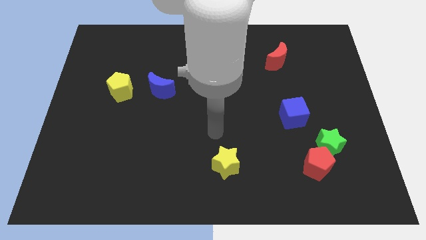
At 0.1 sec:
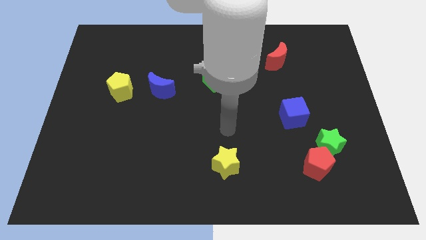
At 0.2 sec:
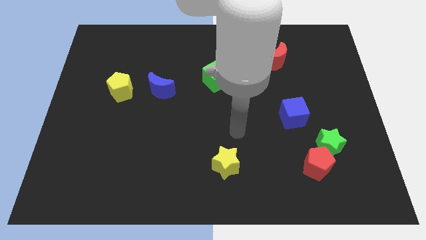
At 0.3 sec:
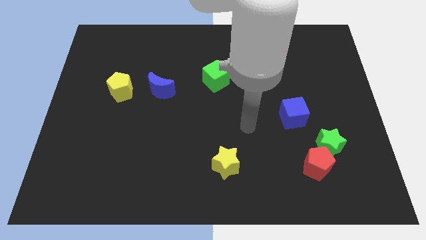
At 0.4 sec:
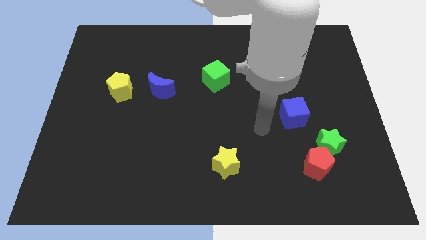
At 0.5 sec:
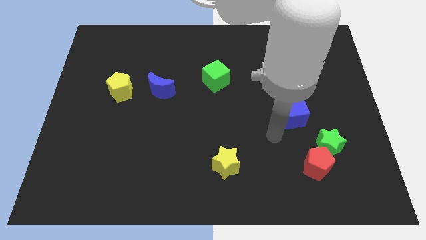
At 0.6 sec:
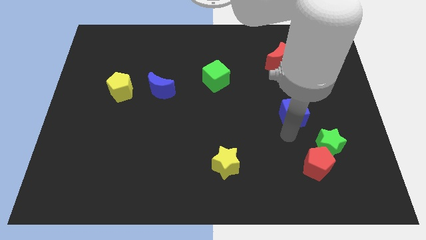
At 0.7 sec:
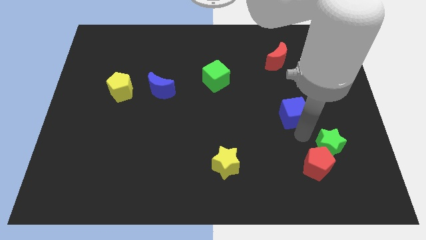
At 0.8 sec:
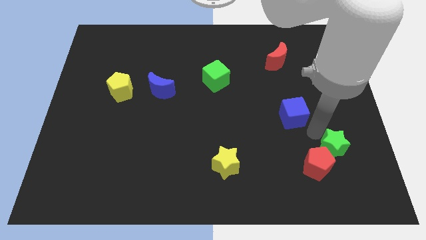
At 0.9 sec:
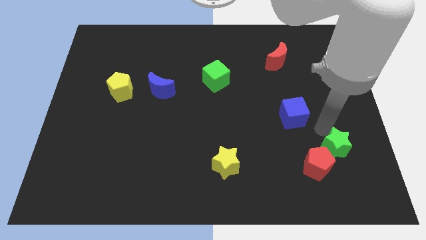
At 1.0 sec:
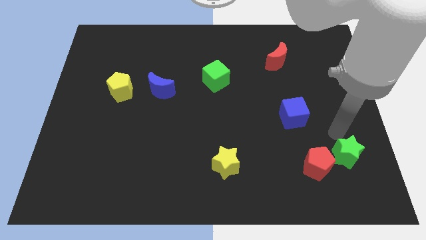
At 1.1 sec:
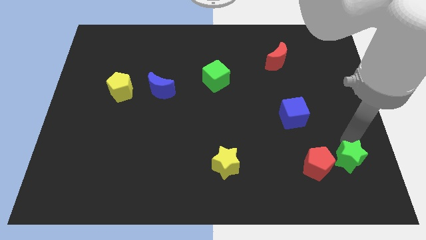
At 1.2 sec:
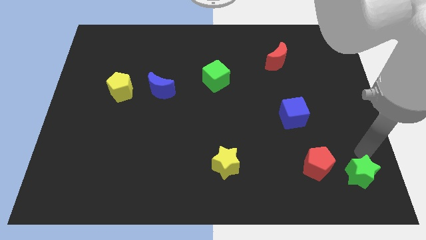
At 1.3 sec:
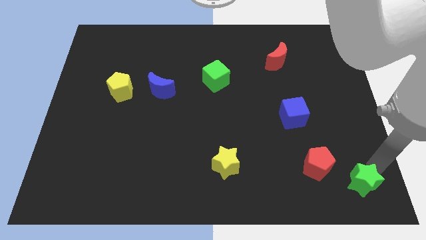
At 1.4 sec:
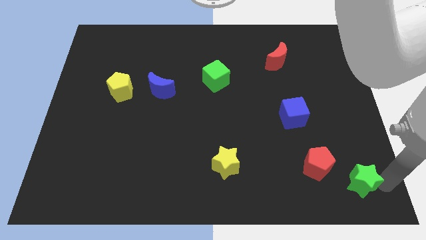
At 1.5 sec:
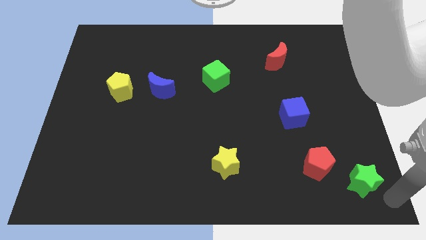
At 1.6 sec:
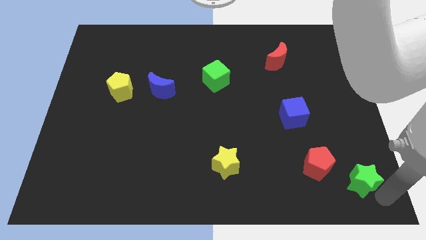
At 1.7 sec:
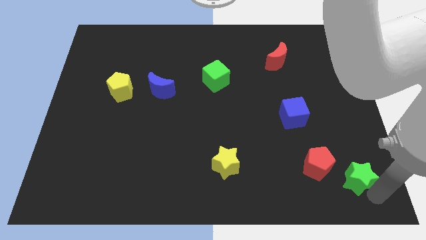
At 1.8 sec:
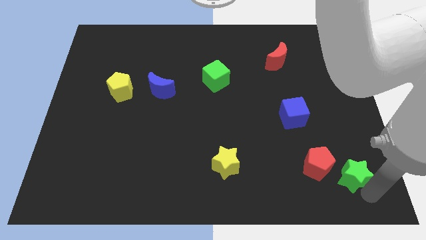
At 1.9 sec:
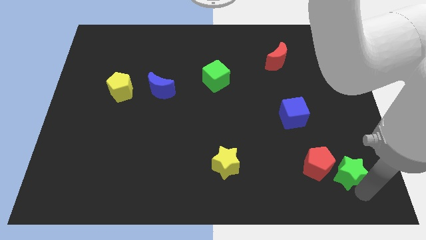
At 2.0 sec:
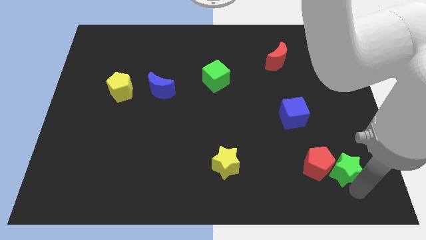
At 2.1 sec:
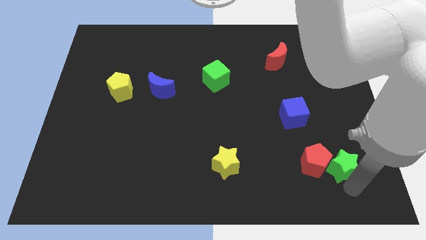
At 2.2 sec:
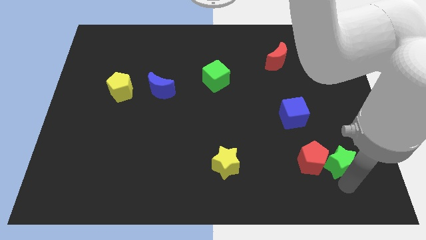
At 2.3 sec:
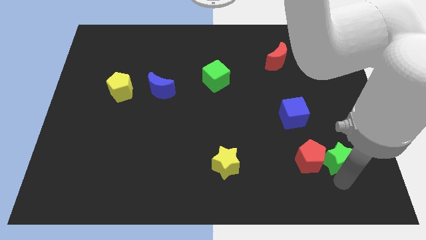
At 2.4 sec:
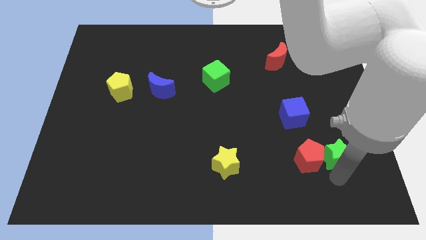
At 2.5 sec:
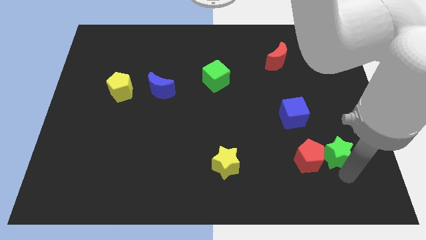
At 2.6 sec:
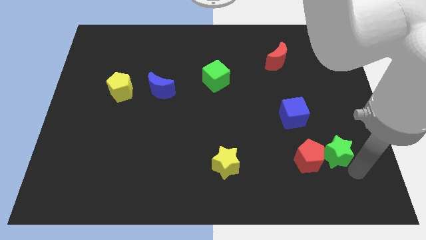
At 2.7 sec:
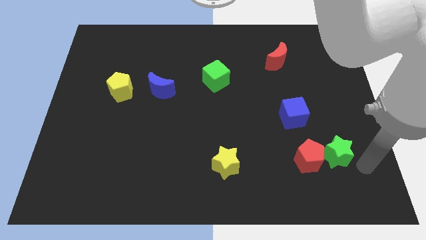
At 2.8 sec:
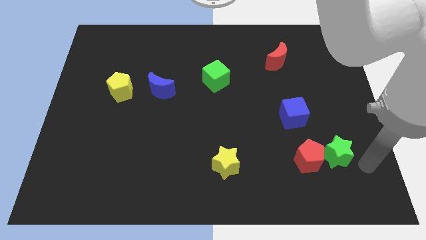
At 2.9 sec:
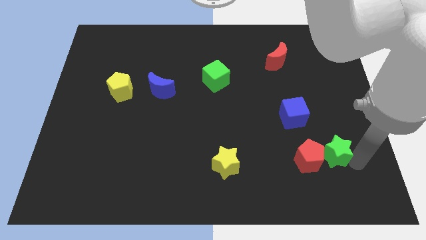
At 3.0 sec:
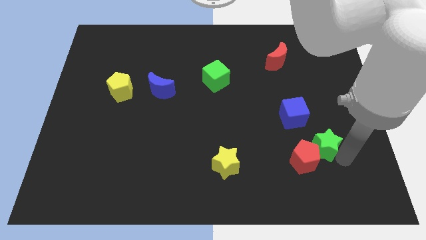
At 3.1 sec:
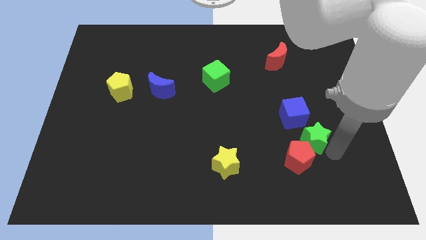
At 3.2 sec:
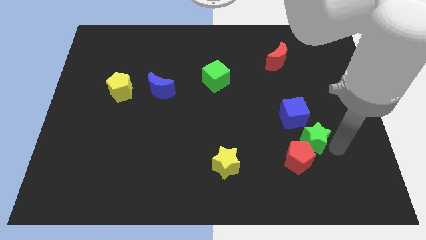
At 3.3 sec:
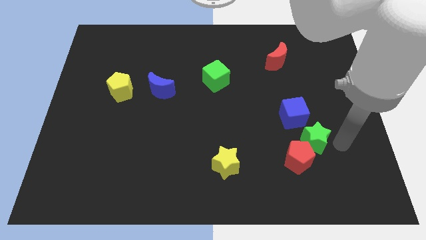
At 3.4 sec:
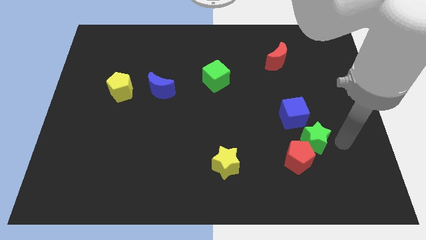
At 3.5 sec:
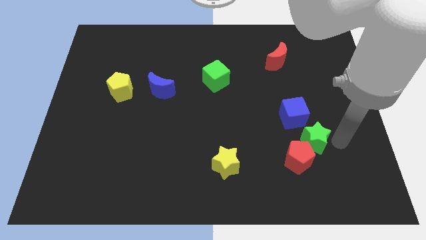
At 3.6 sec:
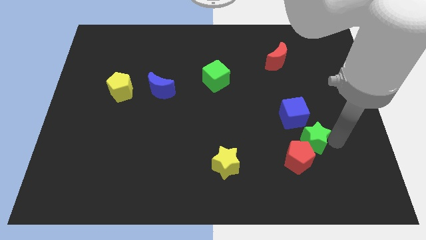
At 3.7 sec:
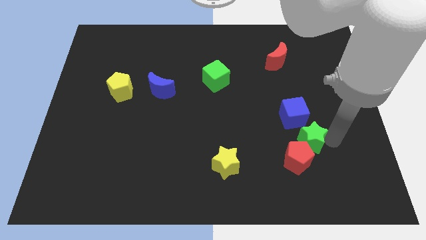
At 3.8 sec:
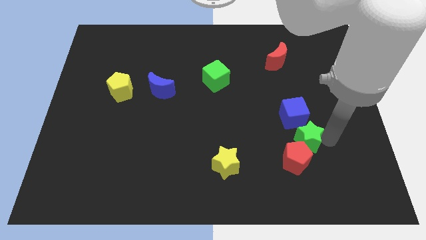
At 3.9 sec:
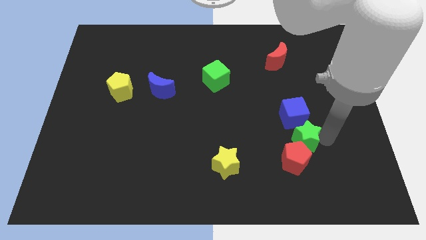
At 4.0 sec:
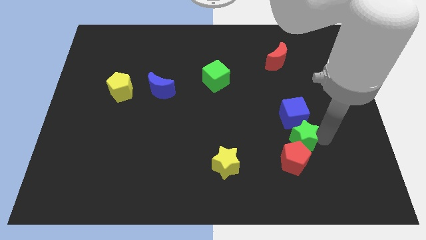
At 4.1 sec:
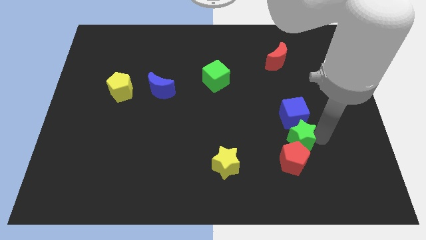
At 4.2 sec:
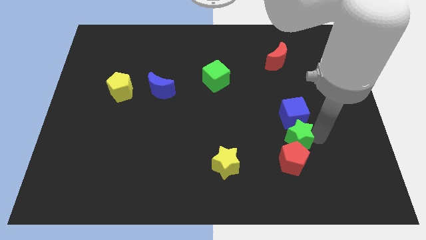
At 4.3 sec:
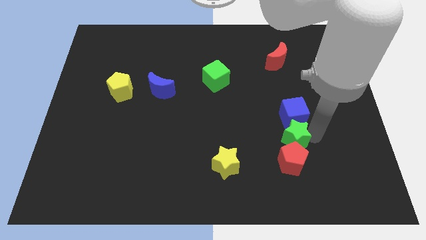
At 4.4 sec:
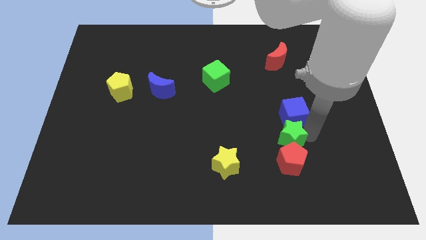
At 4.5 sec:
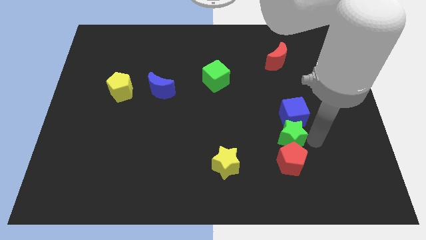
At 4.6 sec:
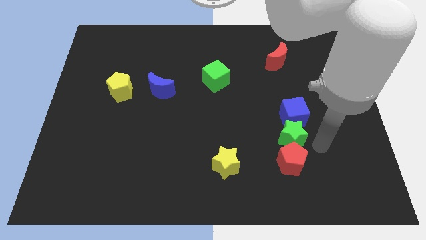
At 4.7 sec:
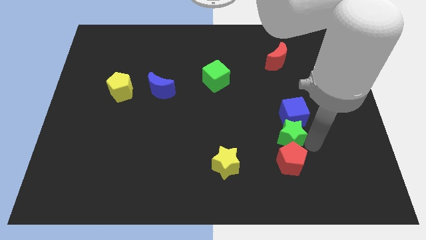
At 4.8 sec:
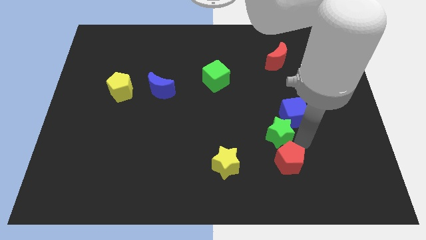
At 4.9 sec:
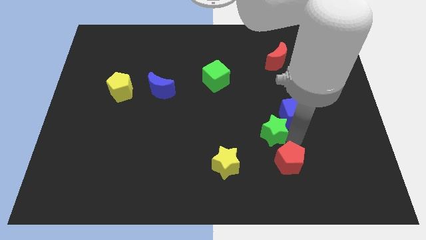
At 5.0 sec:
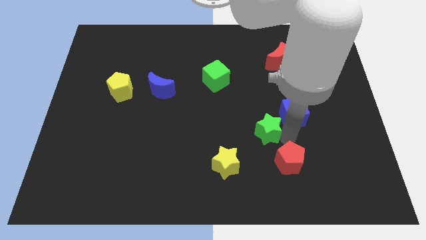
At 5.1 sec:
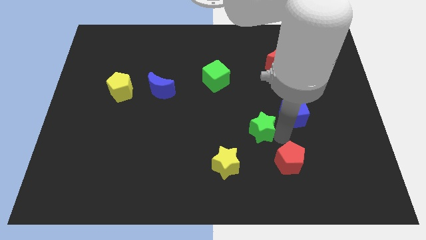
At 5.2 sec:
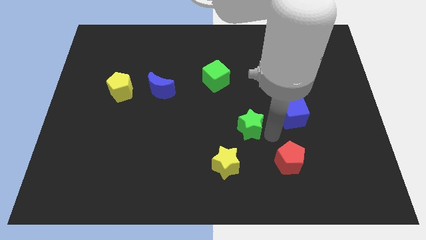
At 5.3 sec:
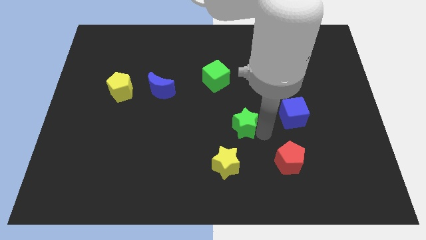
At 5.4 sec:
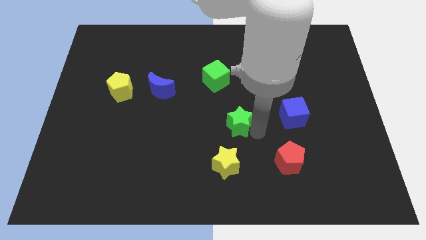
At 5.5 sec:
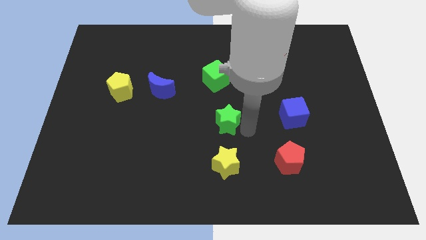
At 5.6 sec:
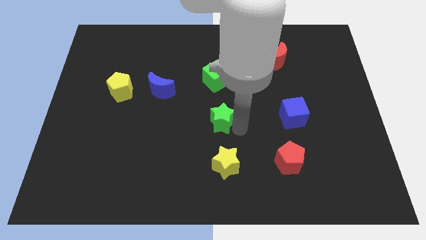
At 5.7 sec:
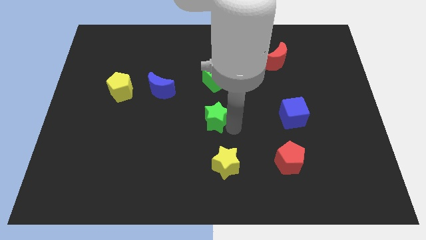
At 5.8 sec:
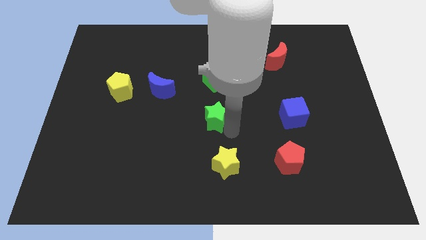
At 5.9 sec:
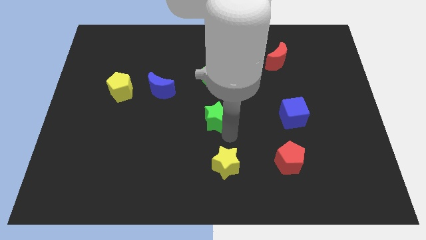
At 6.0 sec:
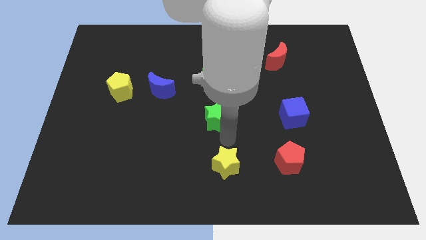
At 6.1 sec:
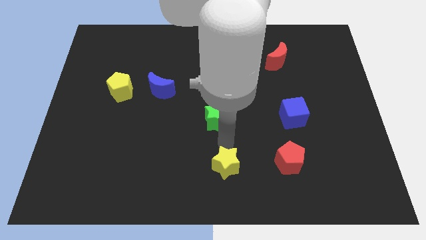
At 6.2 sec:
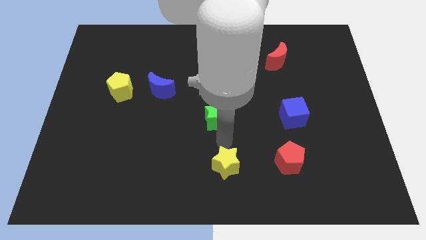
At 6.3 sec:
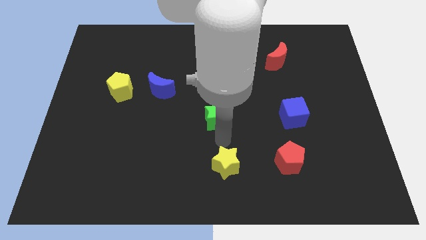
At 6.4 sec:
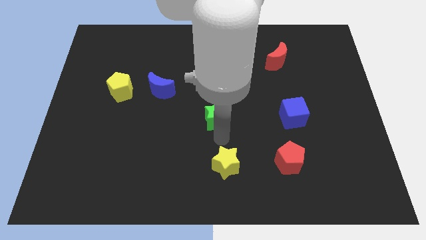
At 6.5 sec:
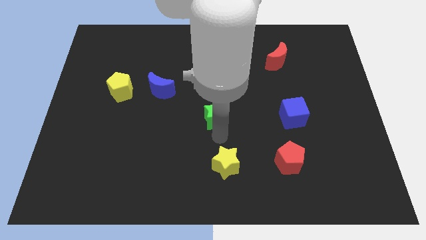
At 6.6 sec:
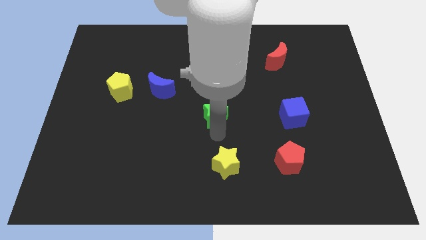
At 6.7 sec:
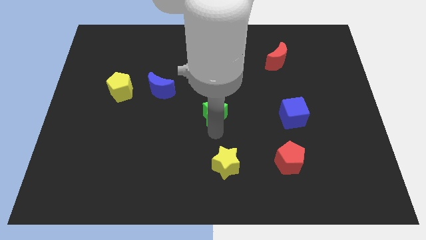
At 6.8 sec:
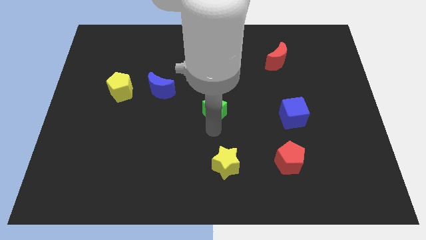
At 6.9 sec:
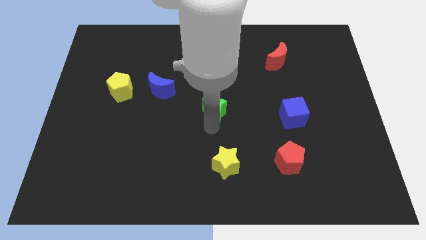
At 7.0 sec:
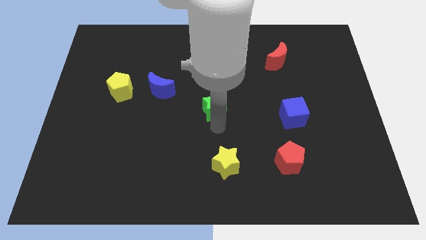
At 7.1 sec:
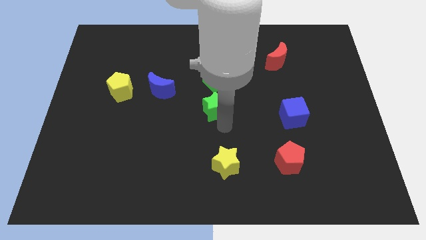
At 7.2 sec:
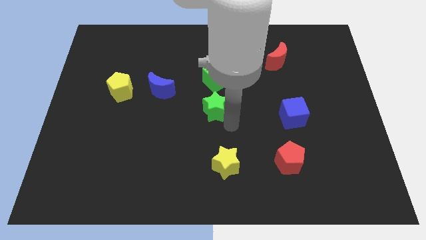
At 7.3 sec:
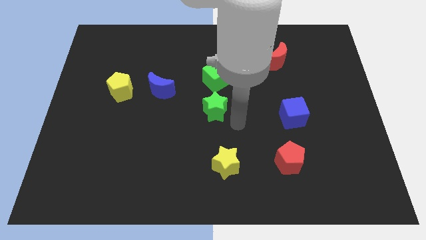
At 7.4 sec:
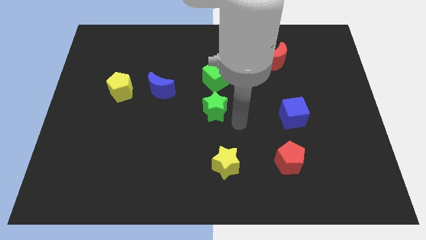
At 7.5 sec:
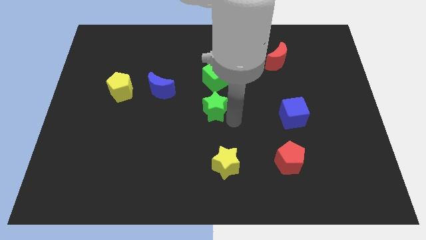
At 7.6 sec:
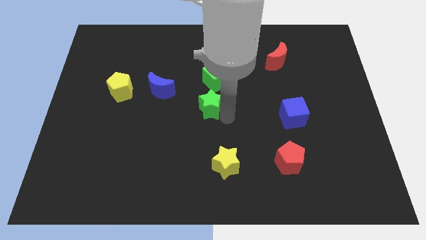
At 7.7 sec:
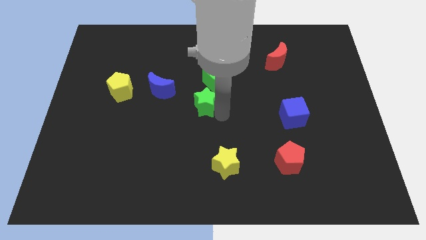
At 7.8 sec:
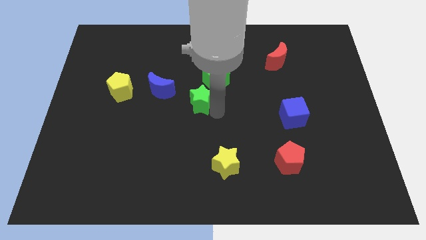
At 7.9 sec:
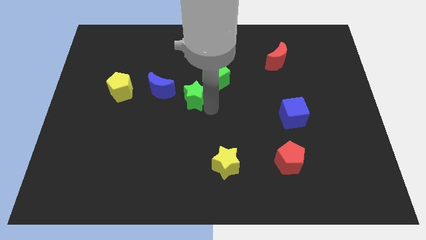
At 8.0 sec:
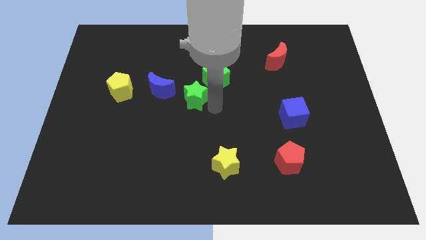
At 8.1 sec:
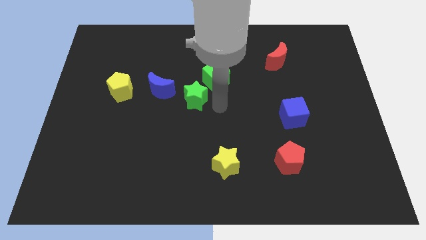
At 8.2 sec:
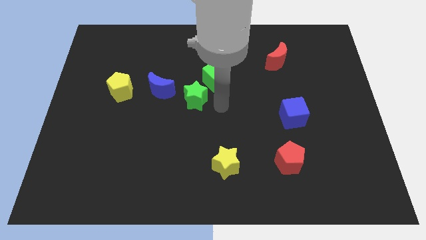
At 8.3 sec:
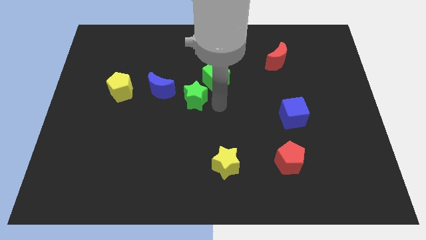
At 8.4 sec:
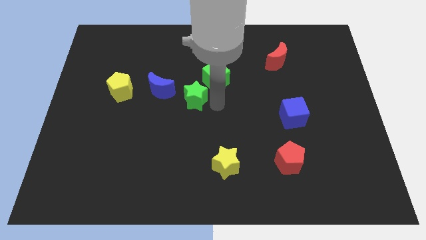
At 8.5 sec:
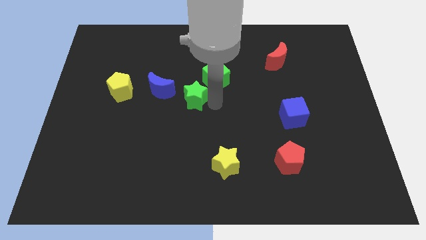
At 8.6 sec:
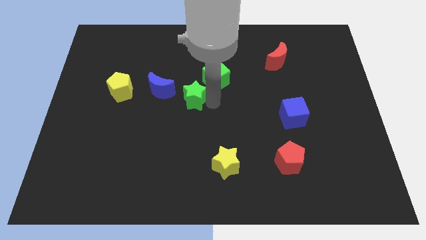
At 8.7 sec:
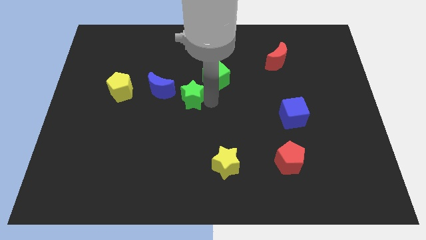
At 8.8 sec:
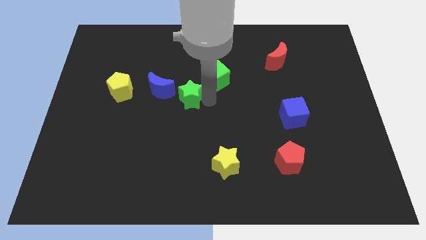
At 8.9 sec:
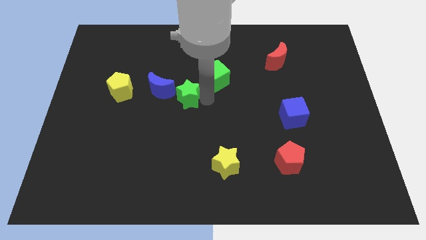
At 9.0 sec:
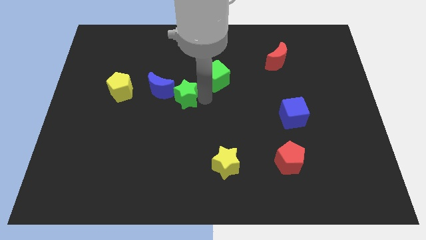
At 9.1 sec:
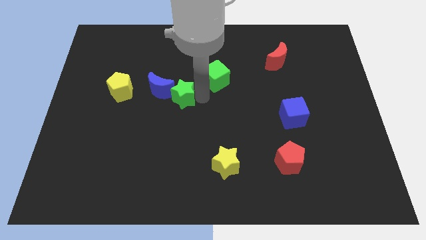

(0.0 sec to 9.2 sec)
put the green star close to the blue moon
